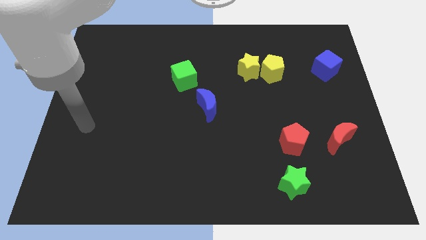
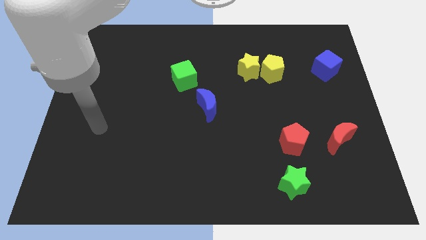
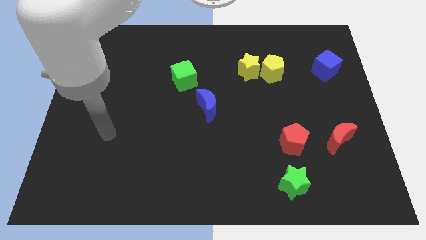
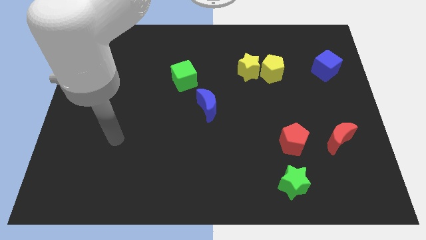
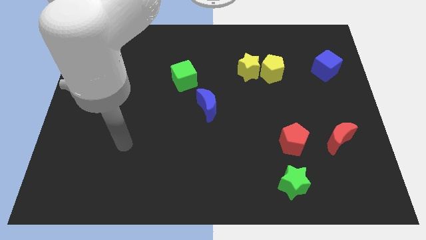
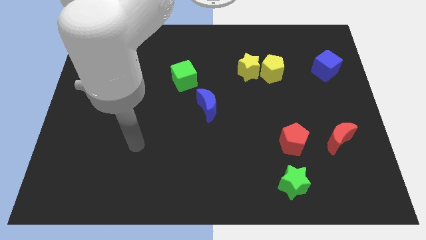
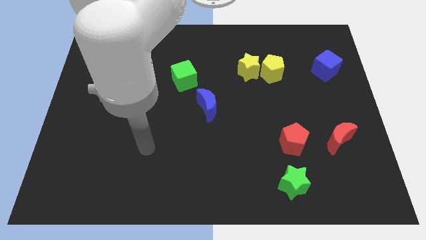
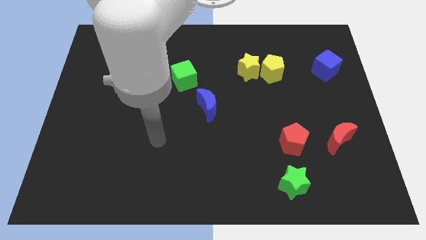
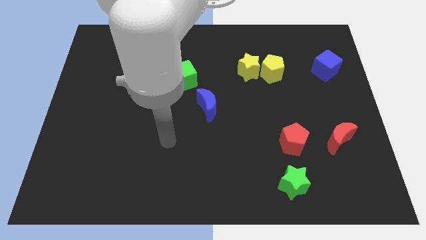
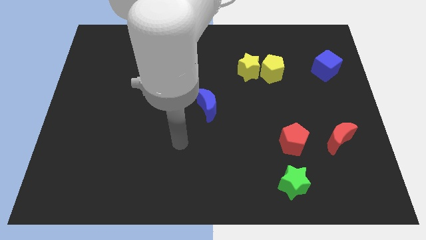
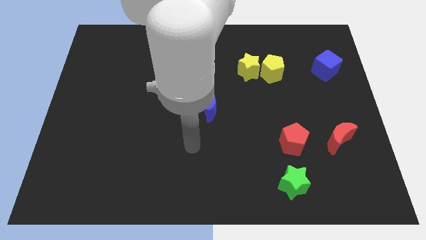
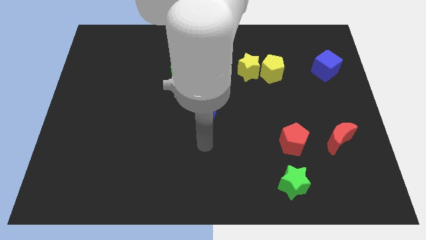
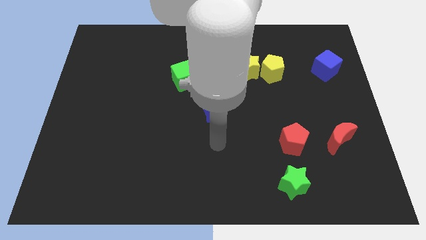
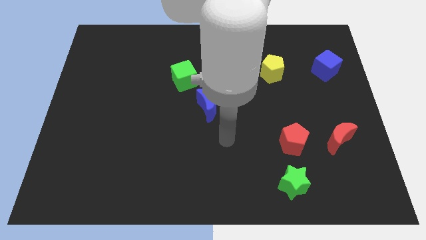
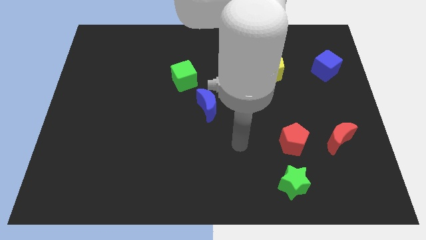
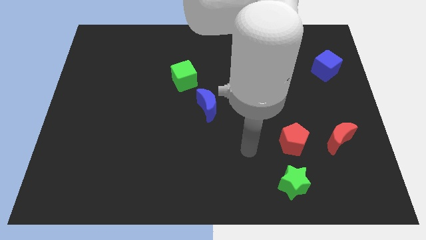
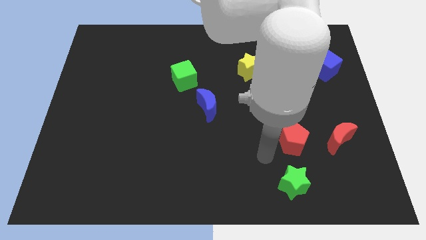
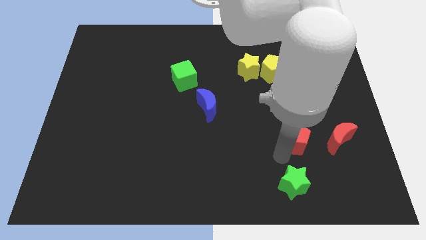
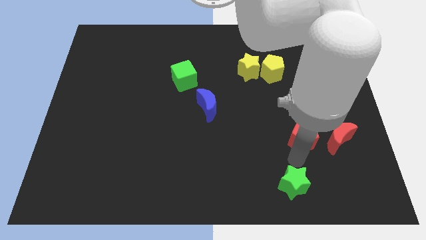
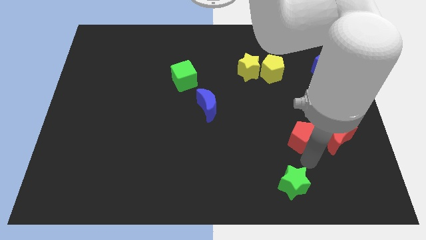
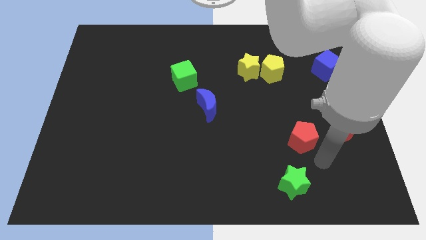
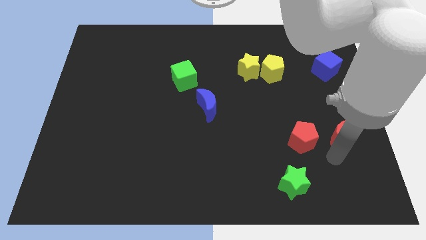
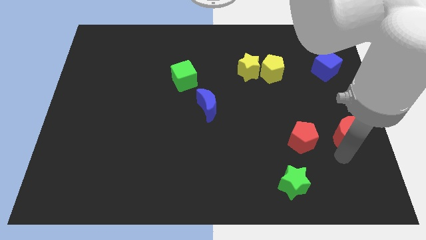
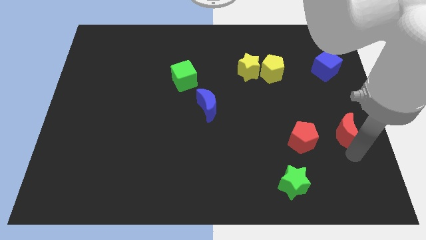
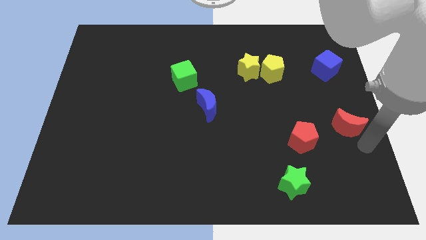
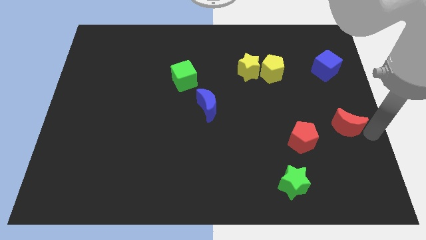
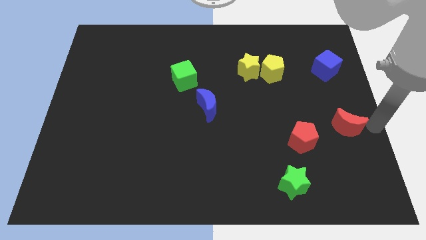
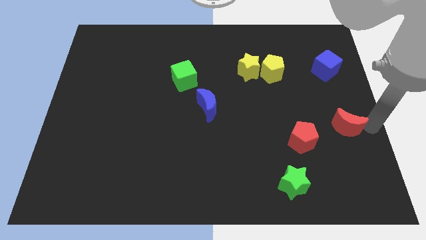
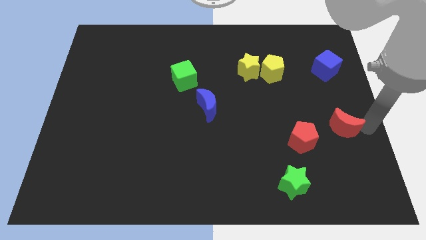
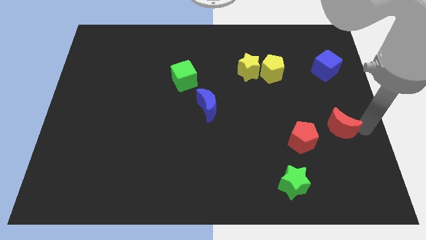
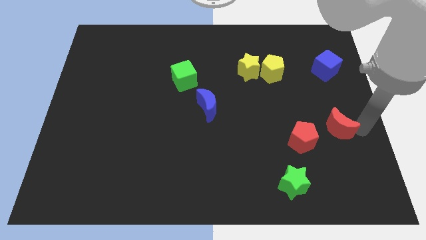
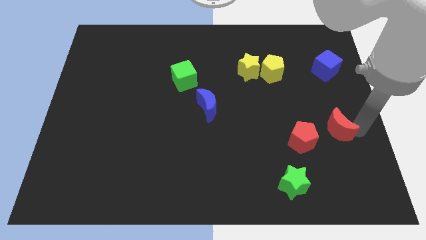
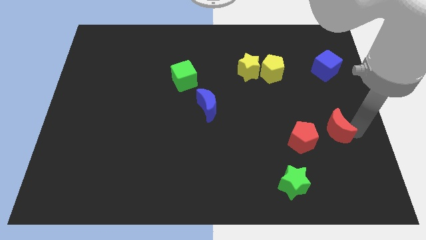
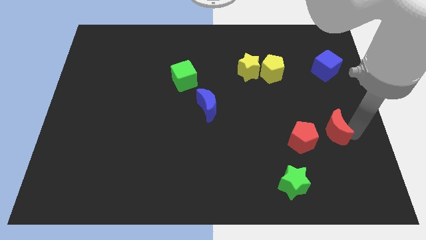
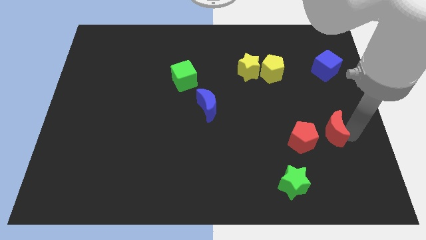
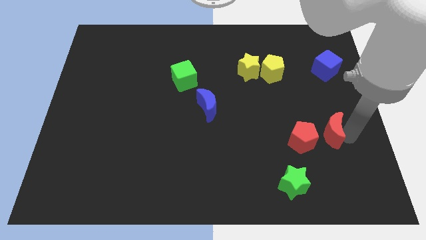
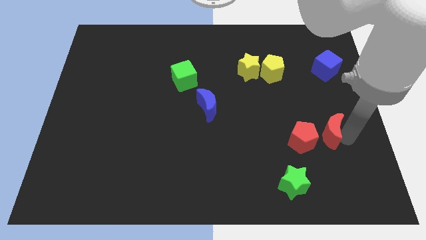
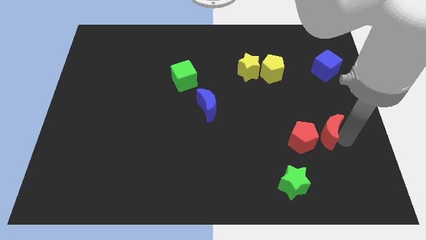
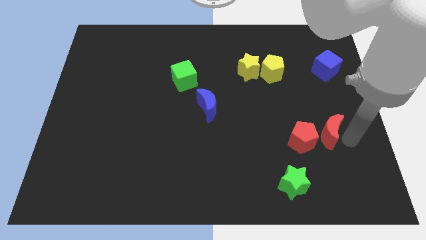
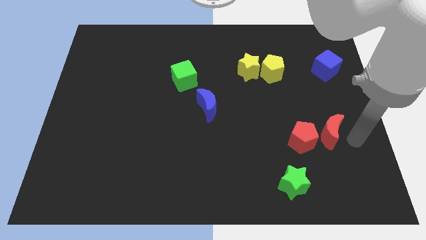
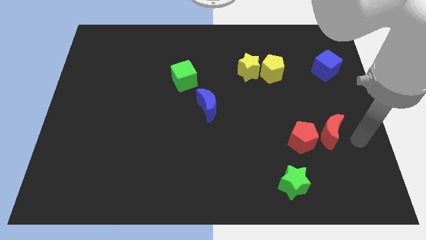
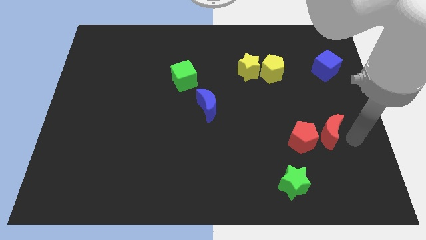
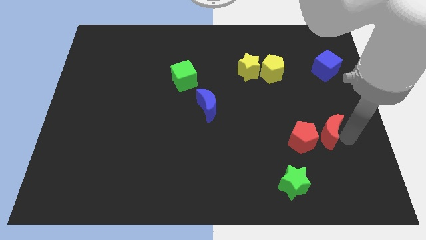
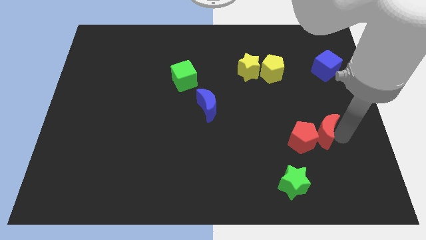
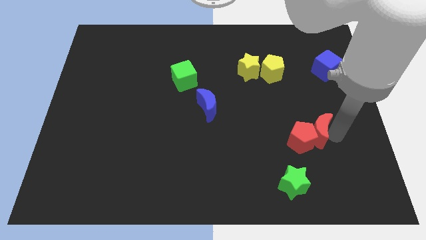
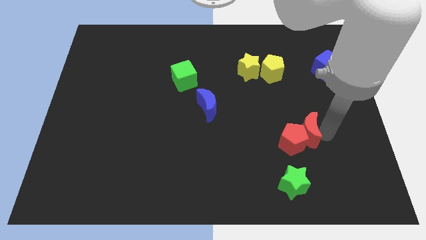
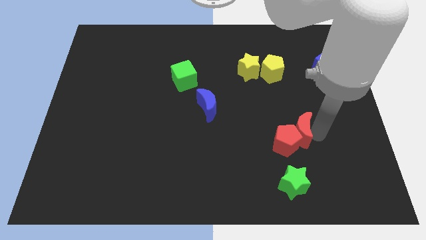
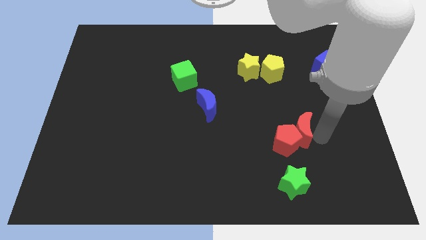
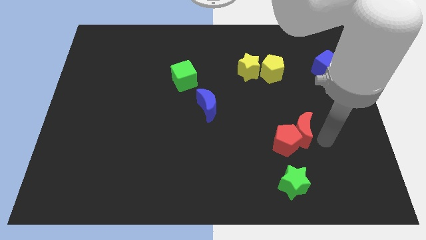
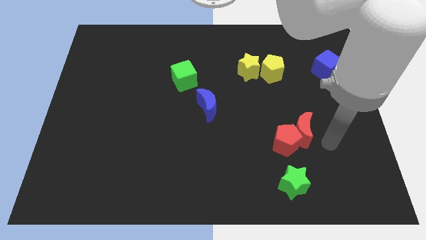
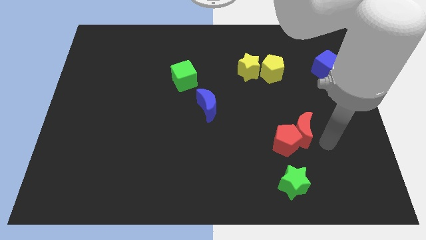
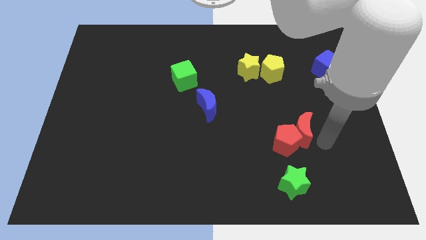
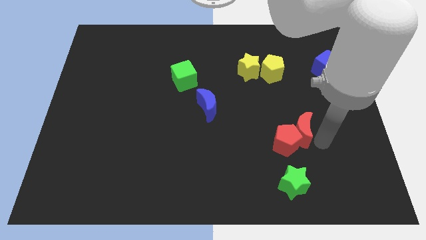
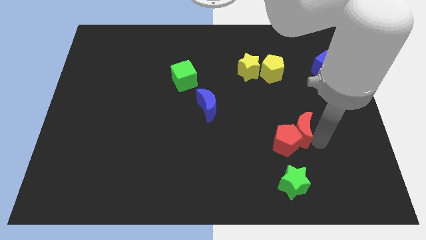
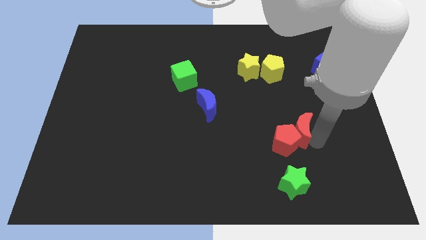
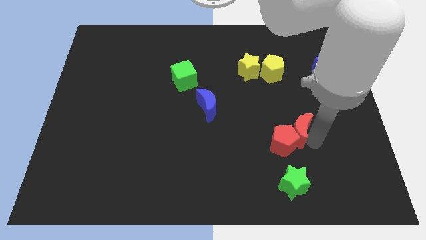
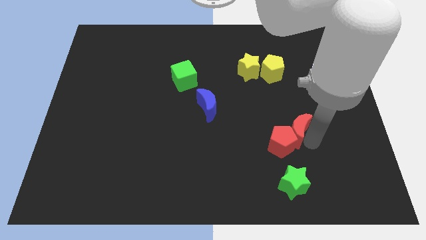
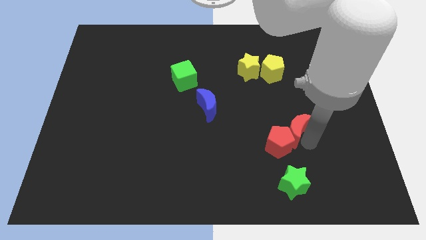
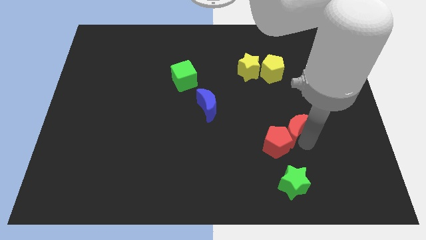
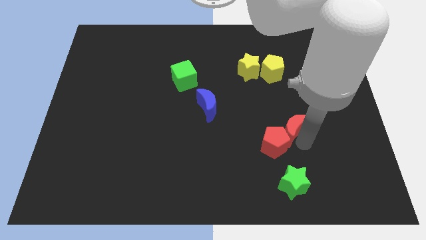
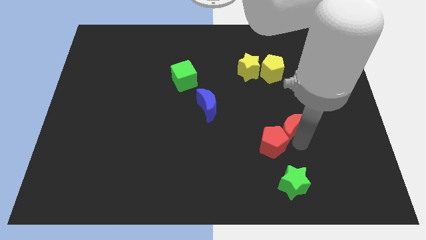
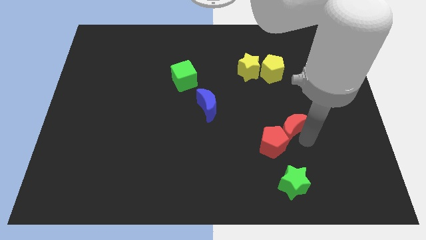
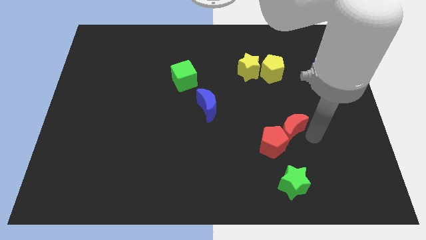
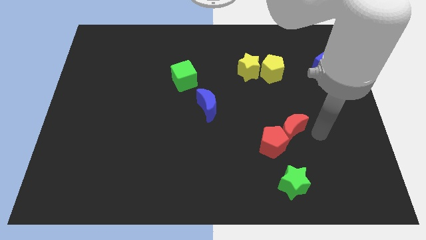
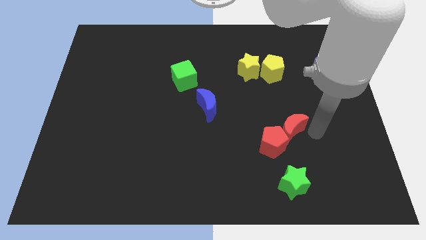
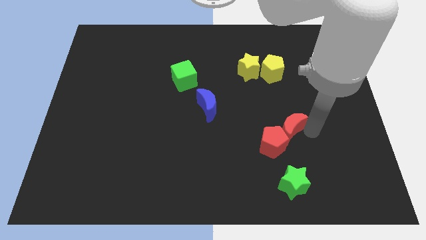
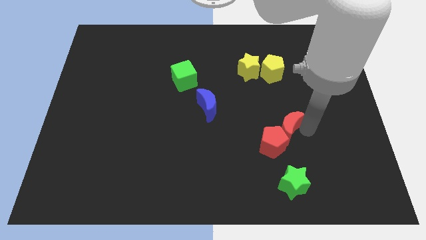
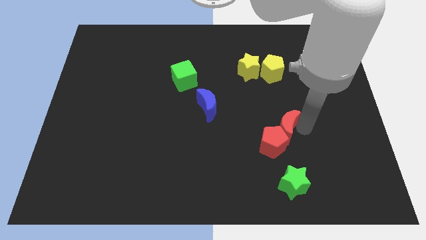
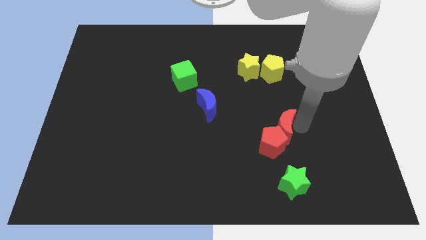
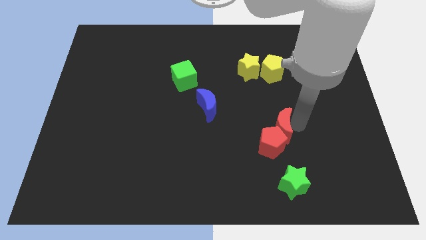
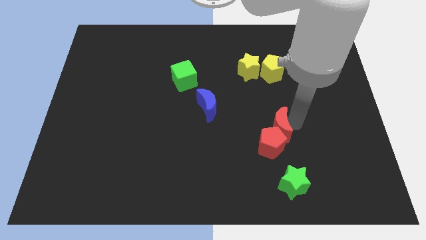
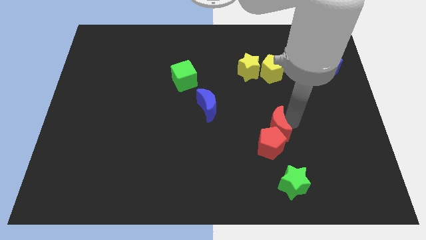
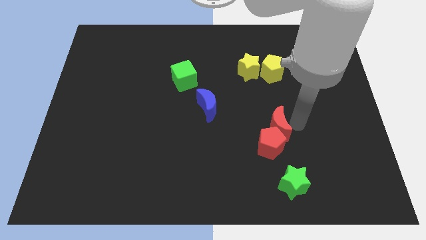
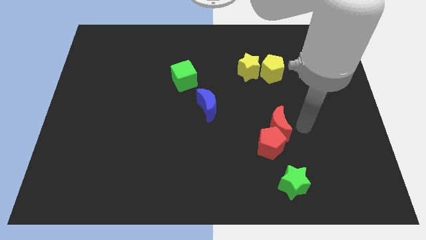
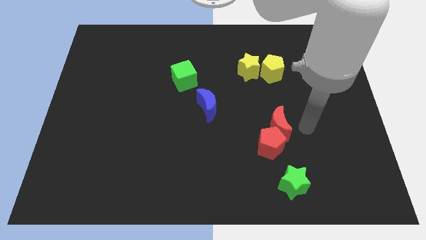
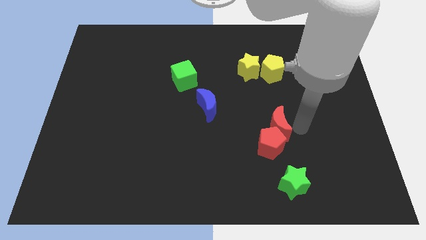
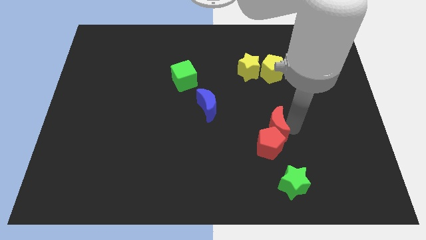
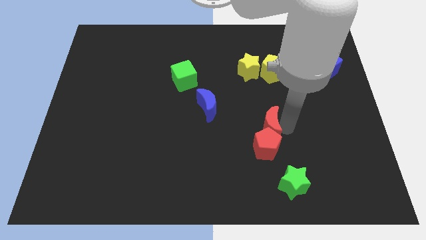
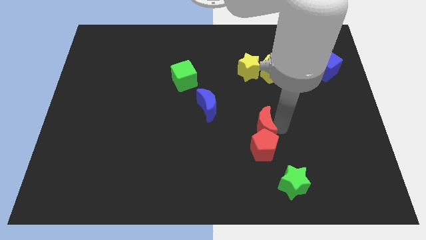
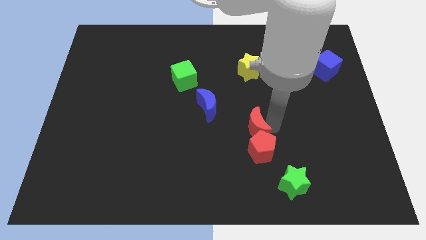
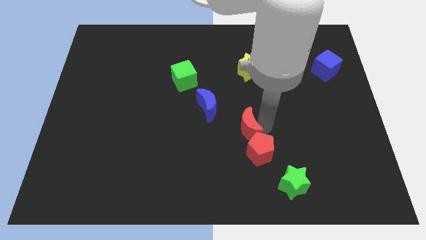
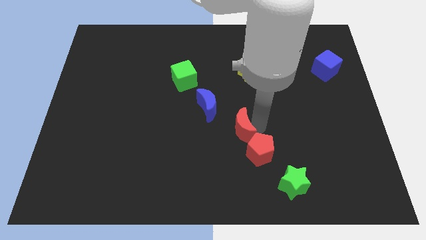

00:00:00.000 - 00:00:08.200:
push the red moon left

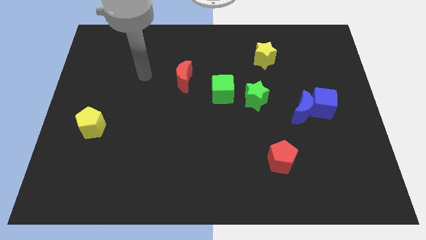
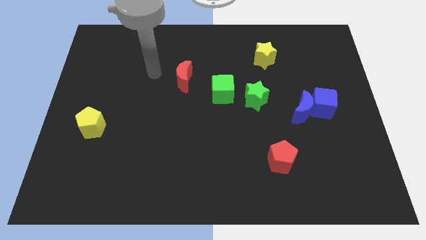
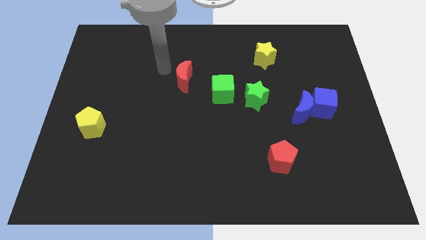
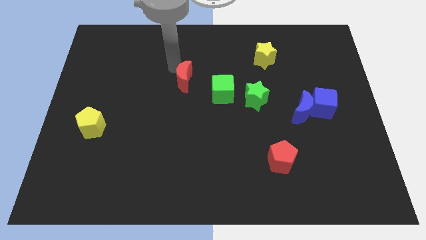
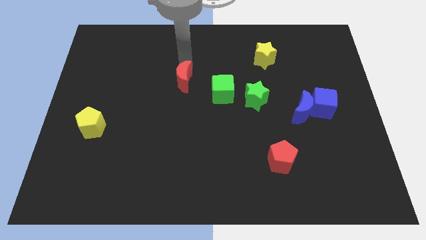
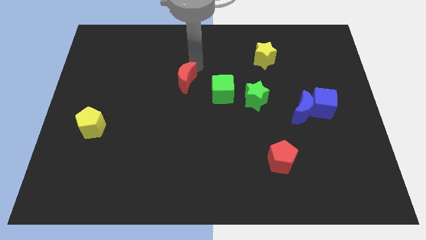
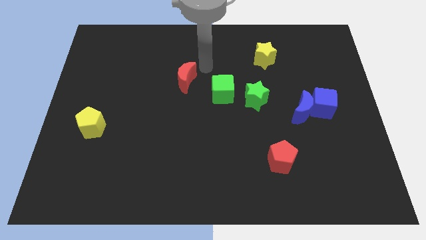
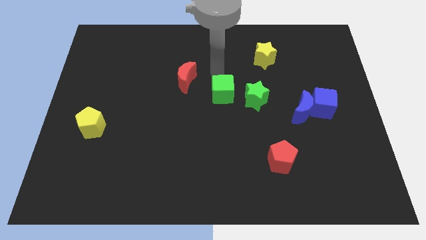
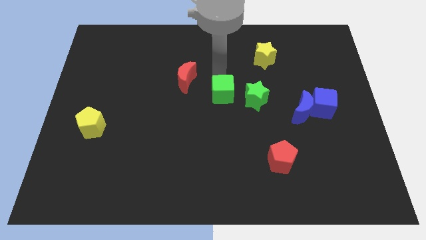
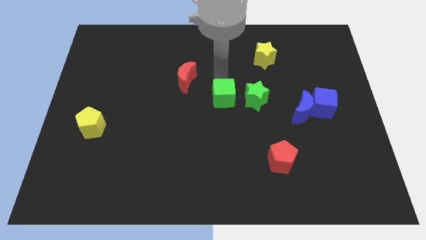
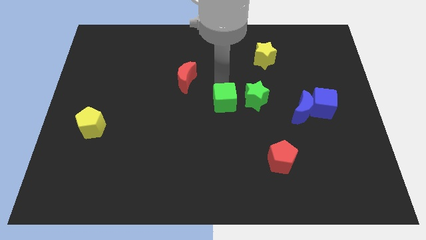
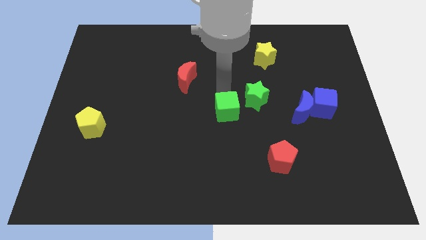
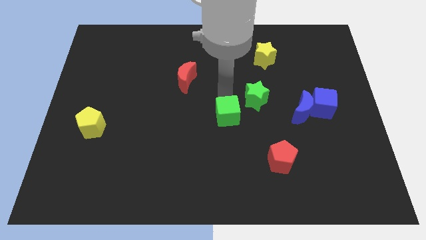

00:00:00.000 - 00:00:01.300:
push the green cube slightly down
